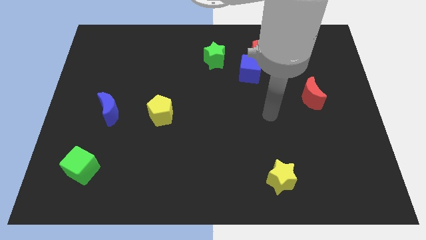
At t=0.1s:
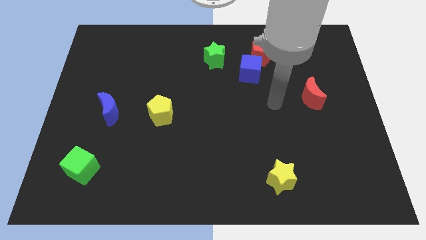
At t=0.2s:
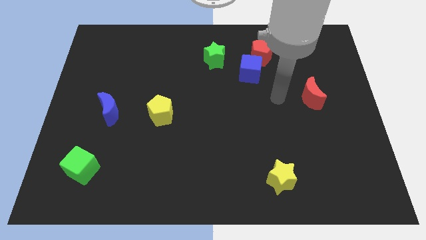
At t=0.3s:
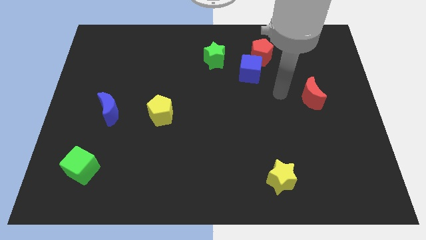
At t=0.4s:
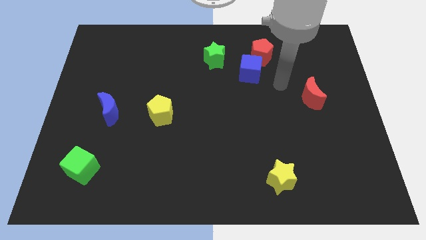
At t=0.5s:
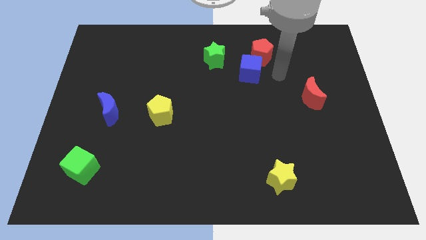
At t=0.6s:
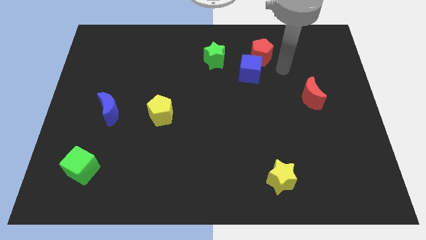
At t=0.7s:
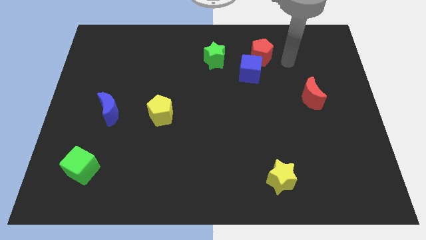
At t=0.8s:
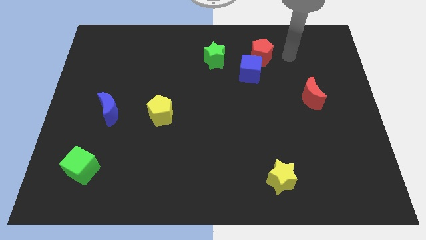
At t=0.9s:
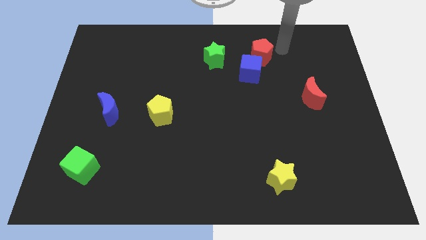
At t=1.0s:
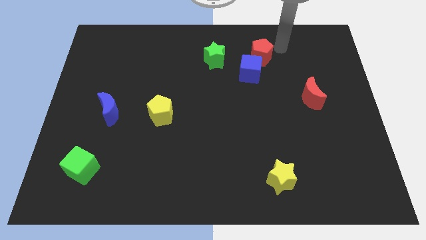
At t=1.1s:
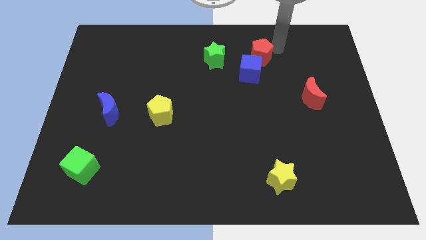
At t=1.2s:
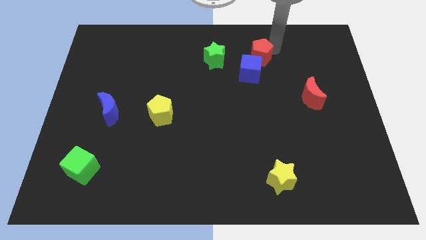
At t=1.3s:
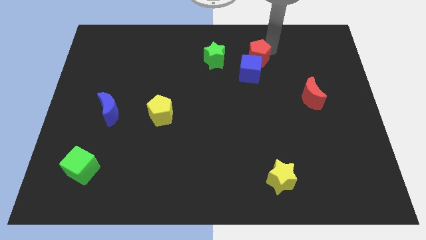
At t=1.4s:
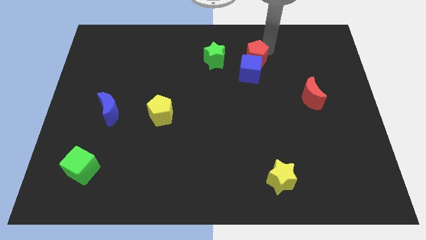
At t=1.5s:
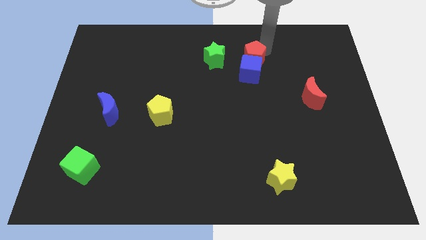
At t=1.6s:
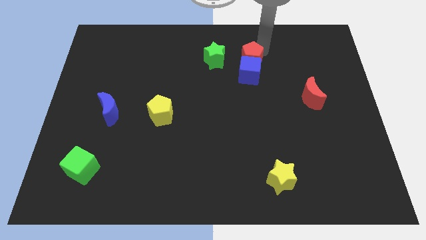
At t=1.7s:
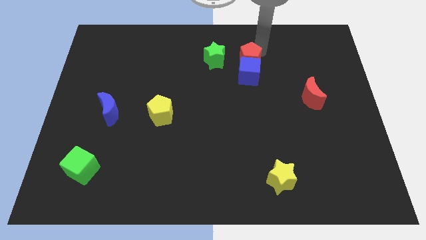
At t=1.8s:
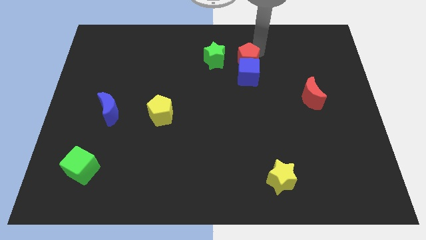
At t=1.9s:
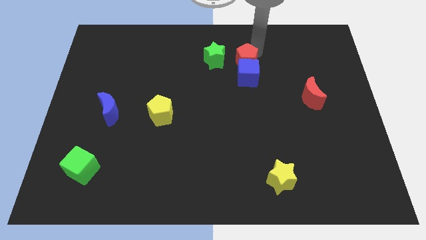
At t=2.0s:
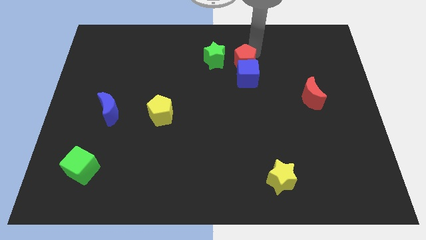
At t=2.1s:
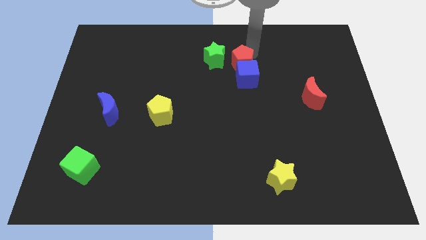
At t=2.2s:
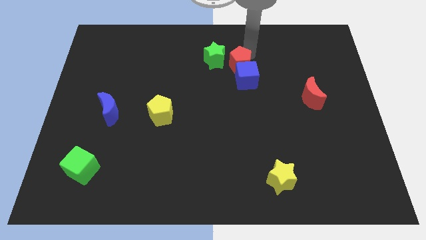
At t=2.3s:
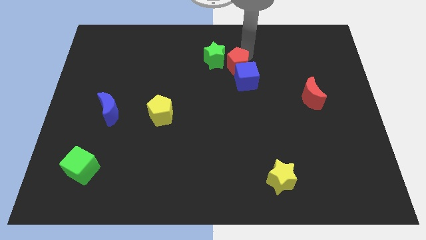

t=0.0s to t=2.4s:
slightly push the red pentagon diagonally down and to the left

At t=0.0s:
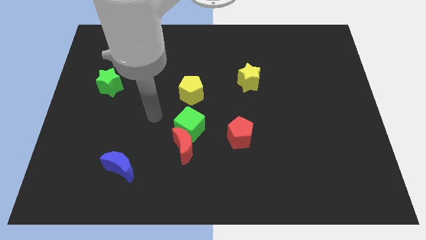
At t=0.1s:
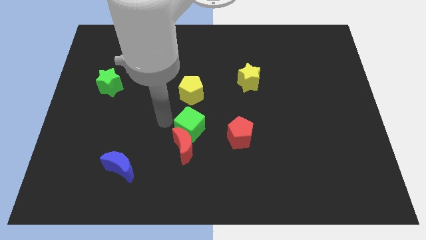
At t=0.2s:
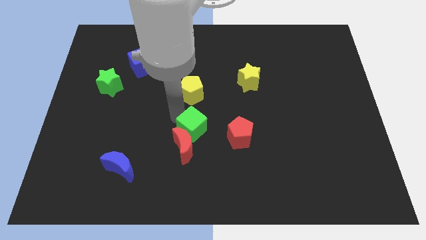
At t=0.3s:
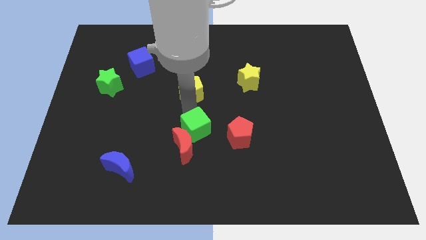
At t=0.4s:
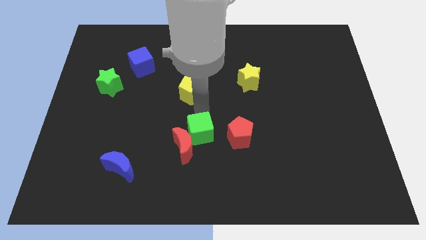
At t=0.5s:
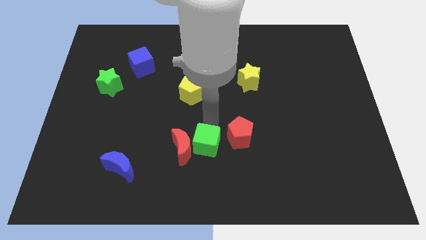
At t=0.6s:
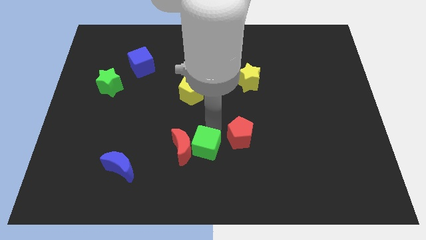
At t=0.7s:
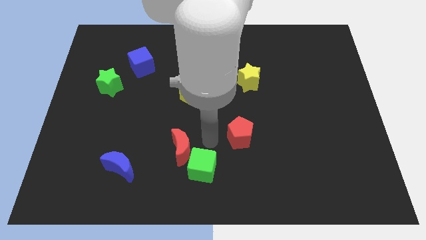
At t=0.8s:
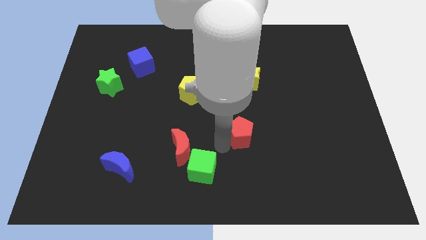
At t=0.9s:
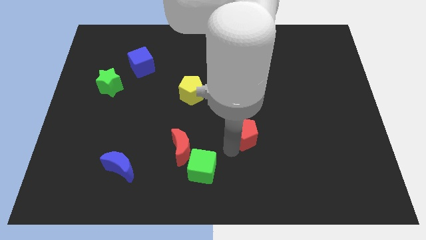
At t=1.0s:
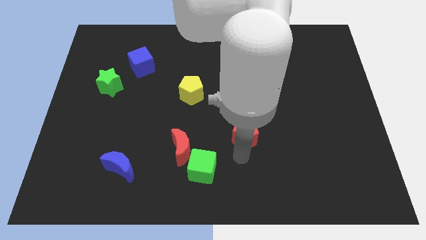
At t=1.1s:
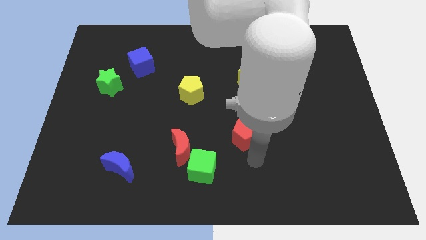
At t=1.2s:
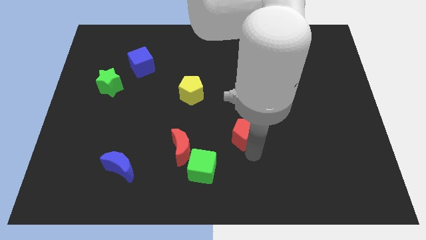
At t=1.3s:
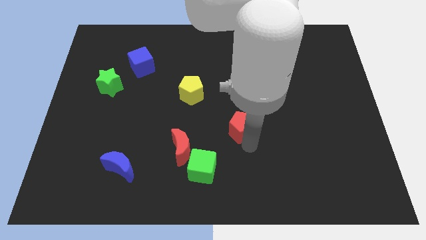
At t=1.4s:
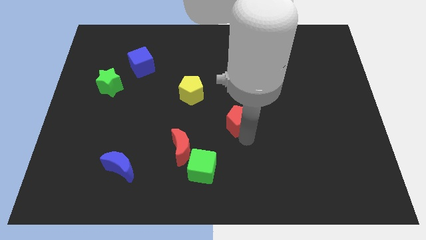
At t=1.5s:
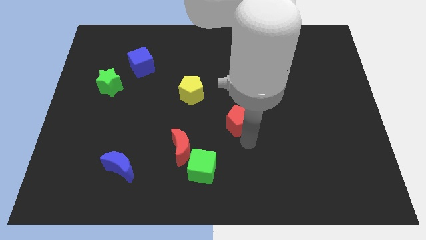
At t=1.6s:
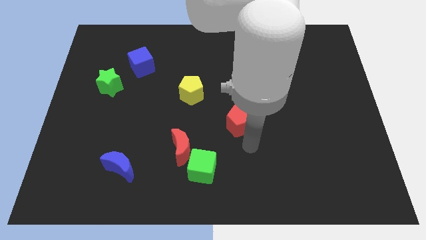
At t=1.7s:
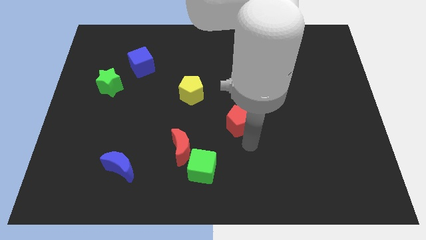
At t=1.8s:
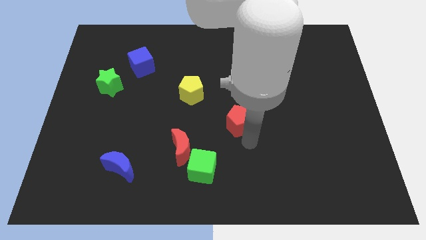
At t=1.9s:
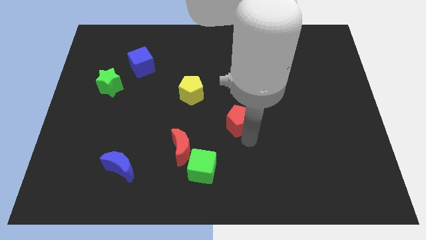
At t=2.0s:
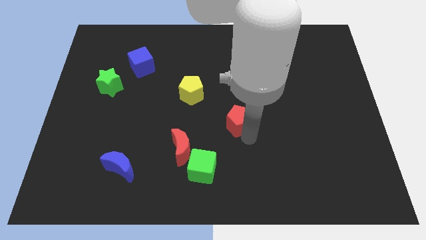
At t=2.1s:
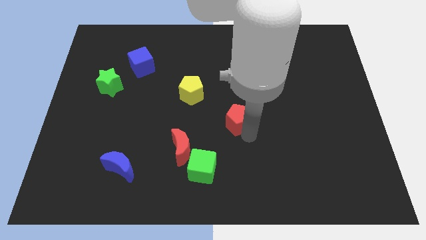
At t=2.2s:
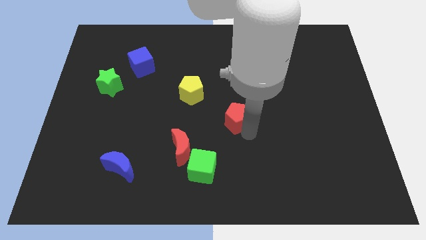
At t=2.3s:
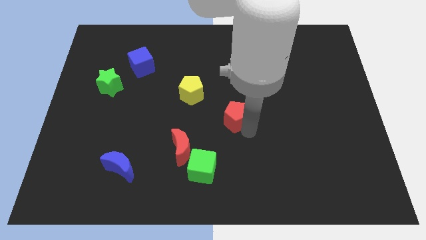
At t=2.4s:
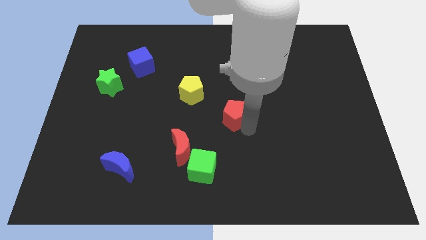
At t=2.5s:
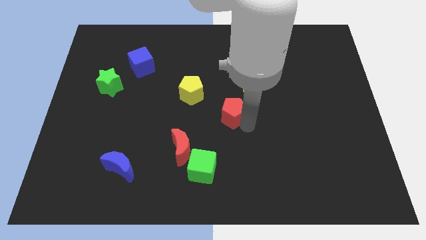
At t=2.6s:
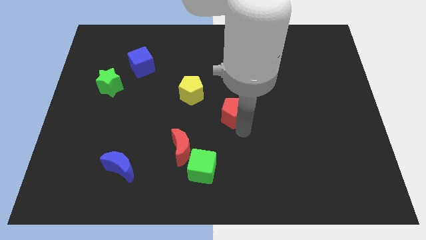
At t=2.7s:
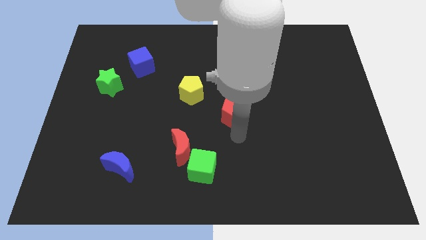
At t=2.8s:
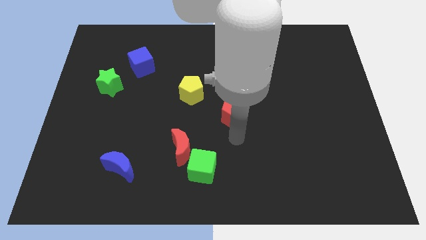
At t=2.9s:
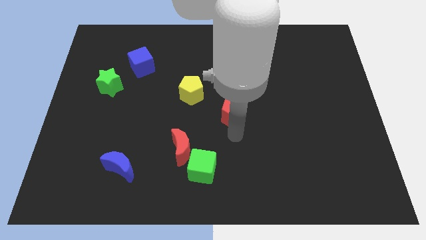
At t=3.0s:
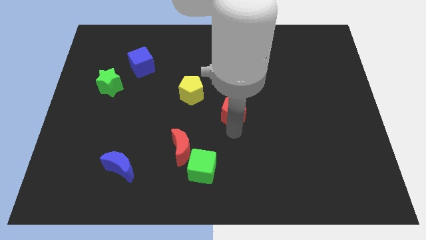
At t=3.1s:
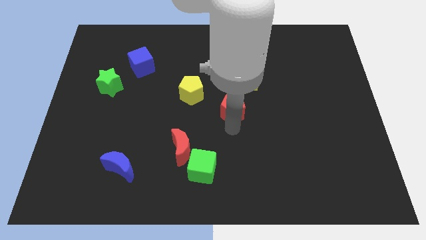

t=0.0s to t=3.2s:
slightly slide the red pentagon upwards

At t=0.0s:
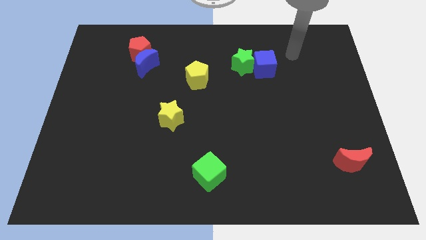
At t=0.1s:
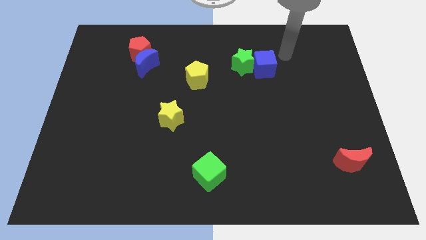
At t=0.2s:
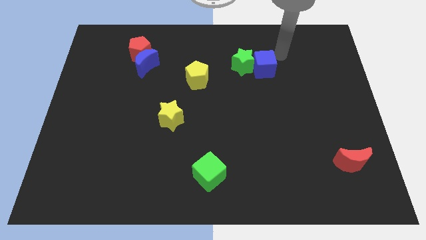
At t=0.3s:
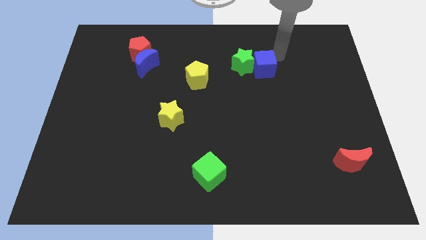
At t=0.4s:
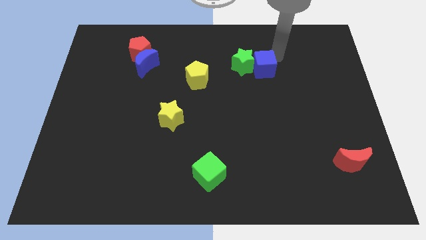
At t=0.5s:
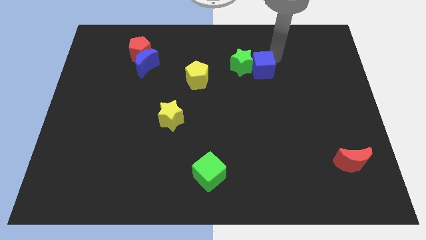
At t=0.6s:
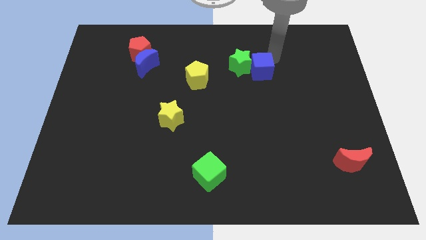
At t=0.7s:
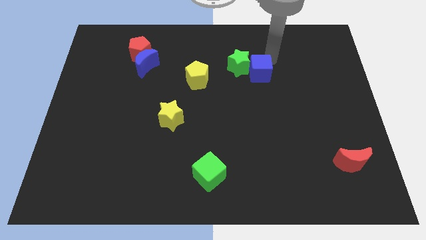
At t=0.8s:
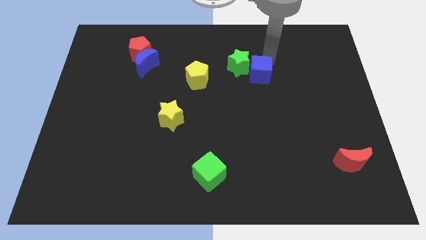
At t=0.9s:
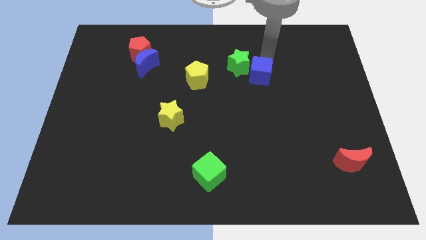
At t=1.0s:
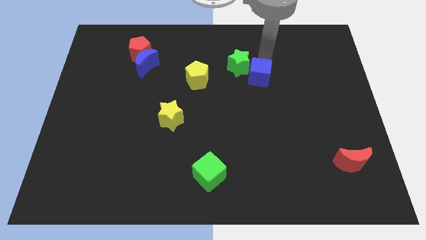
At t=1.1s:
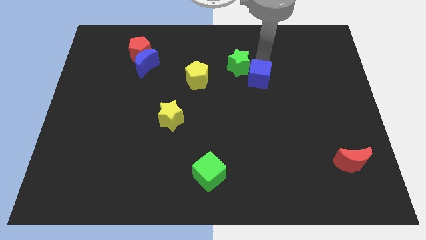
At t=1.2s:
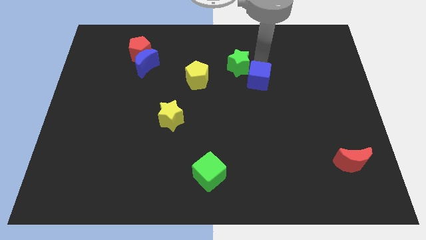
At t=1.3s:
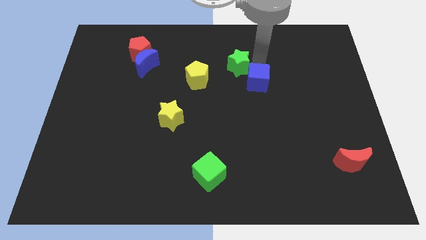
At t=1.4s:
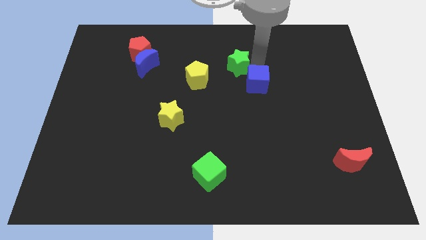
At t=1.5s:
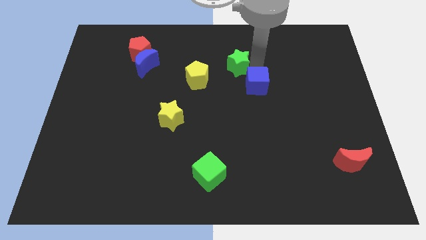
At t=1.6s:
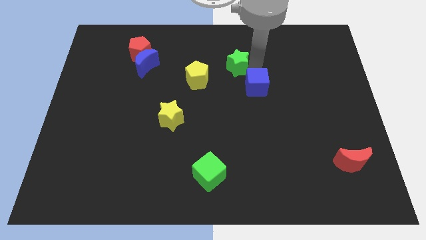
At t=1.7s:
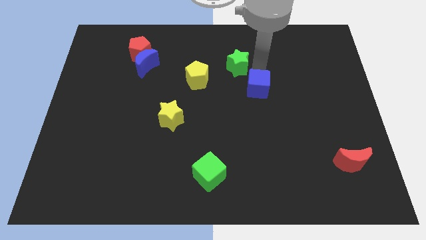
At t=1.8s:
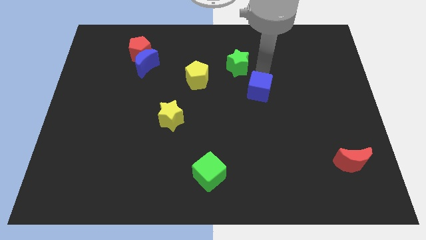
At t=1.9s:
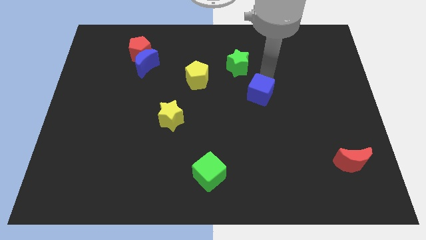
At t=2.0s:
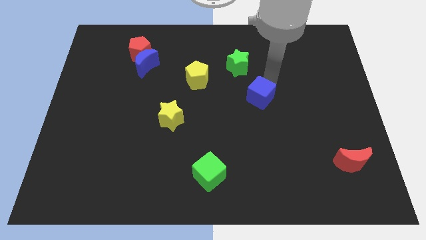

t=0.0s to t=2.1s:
slide the blue cube downwards and then to the left a little bit
